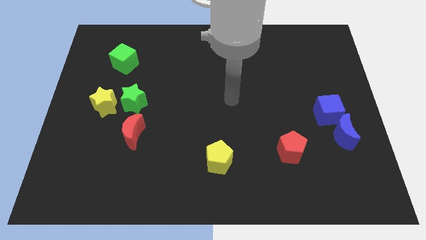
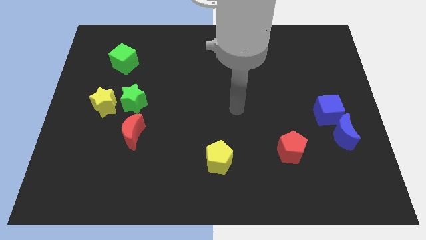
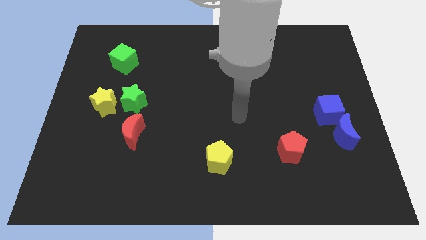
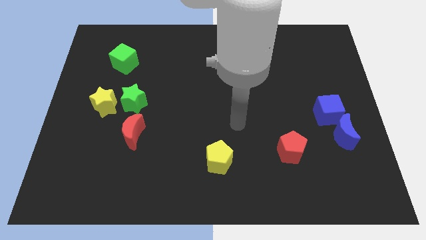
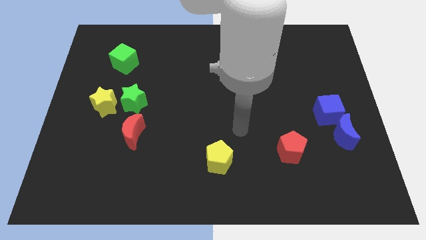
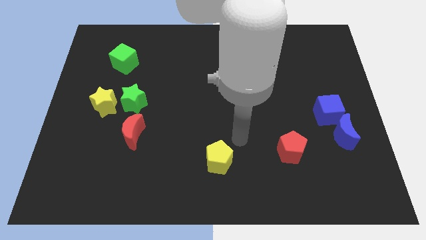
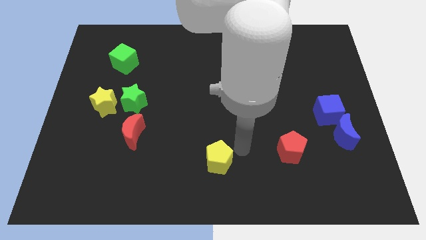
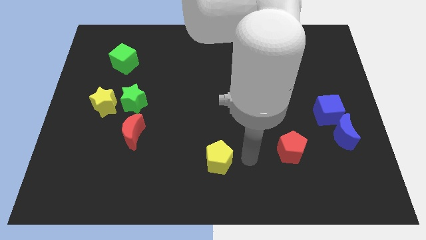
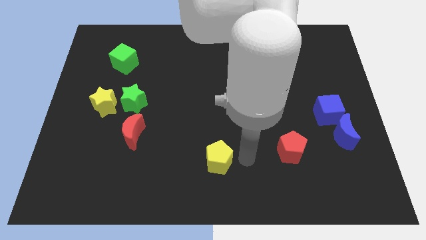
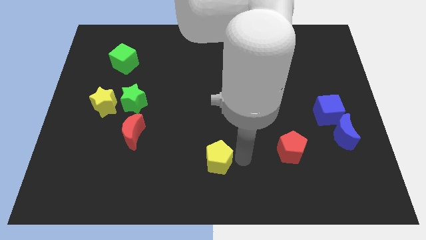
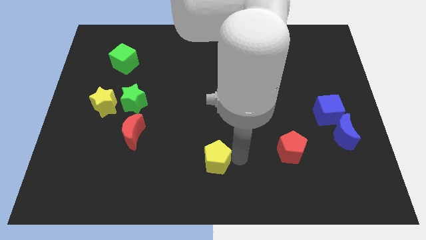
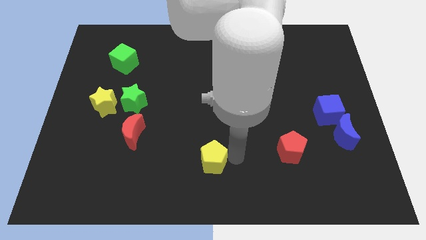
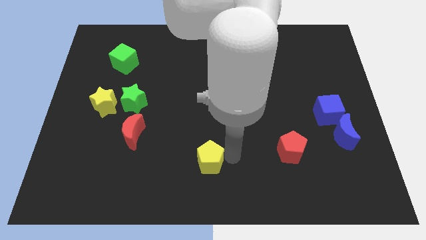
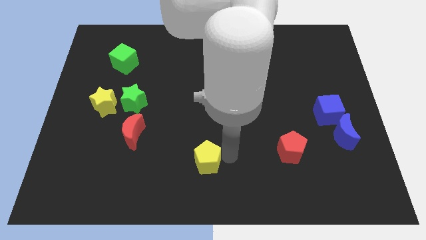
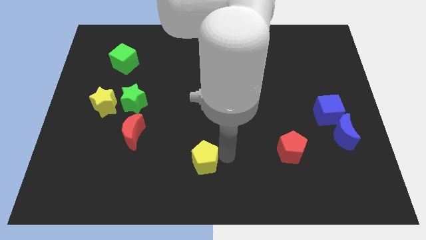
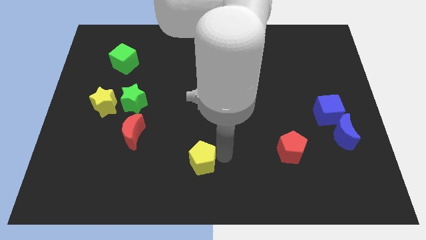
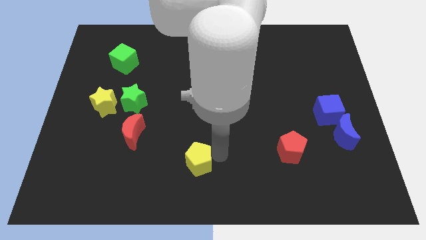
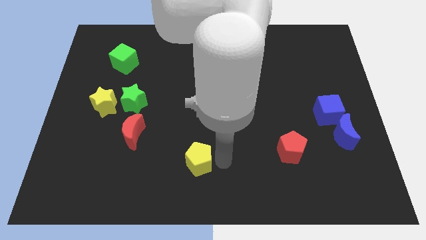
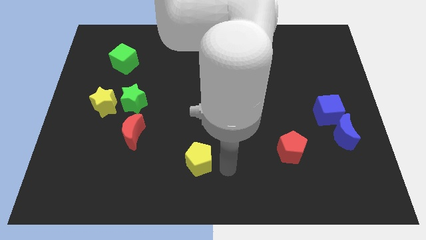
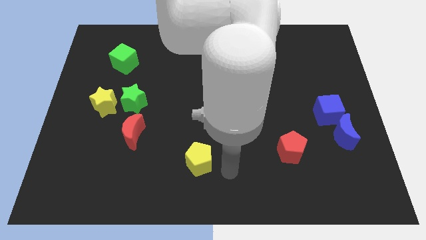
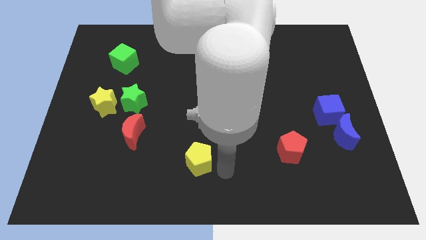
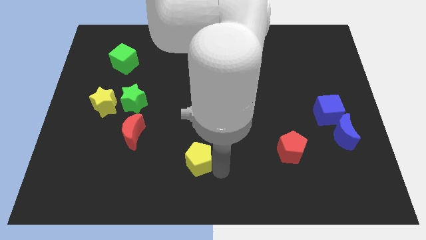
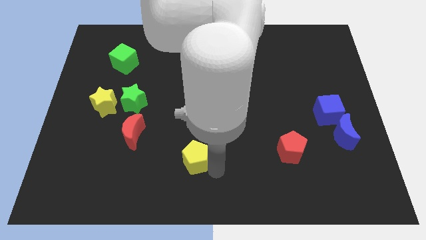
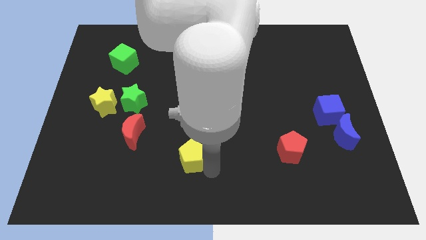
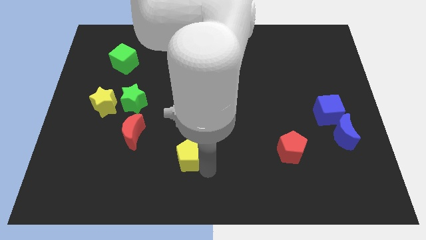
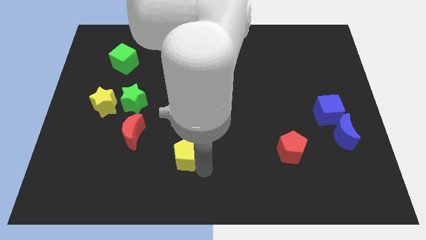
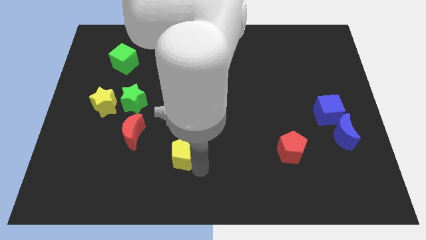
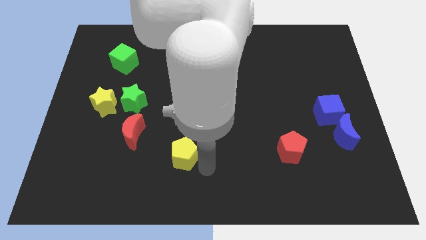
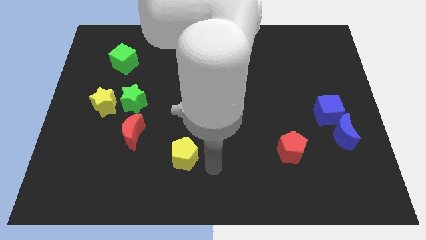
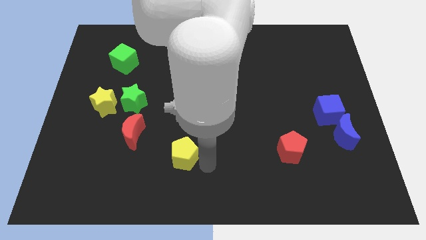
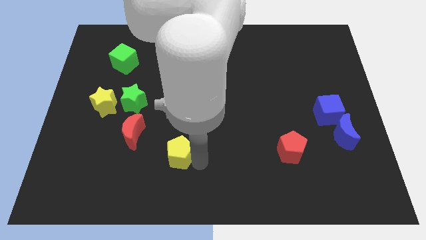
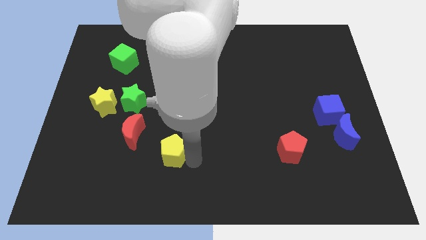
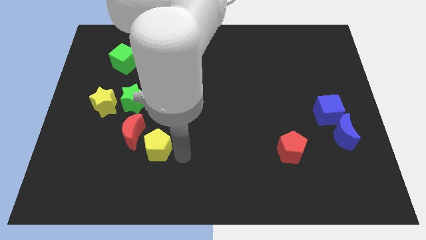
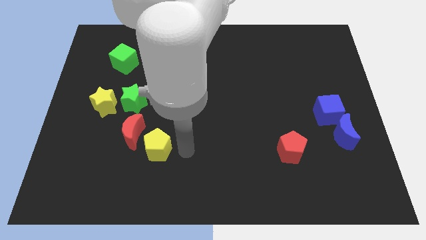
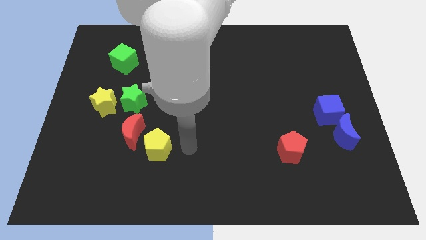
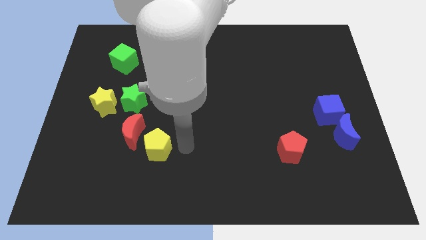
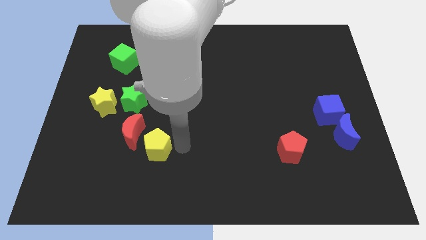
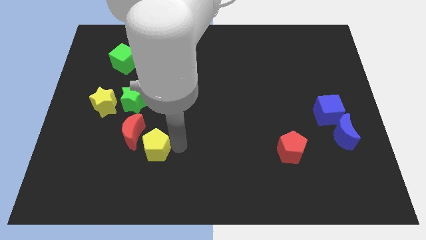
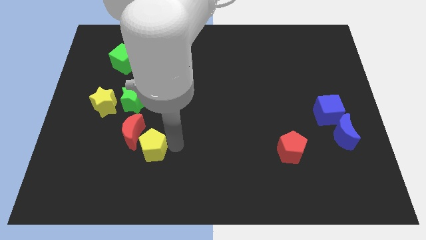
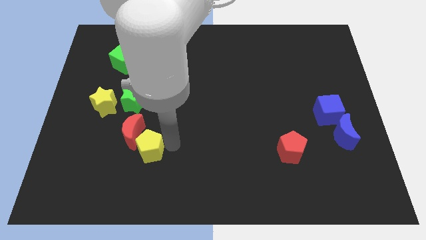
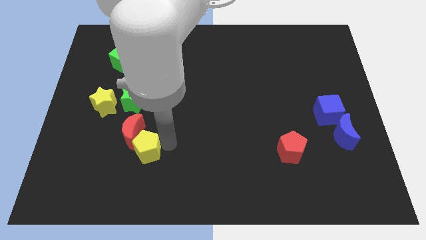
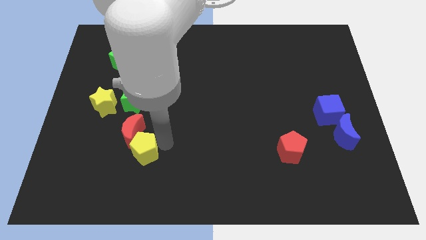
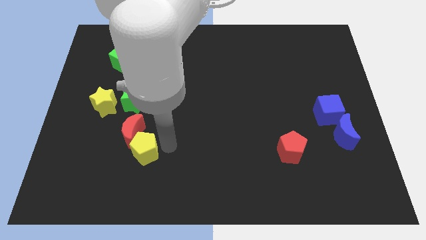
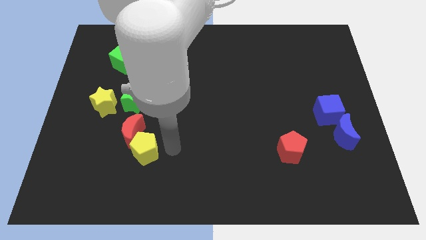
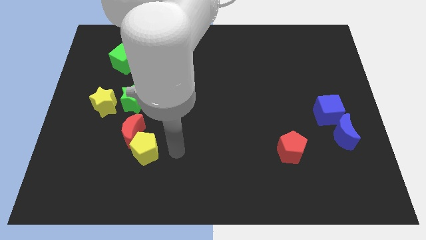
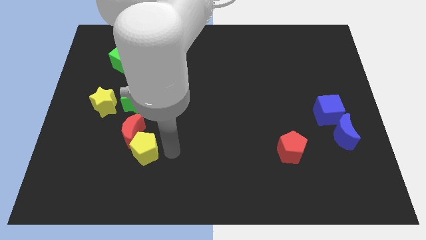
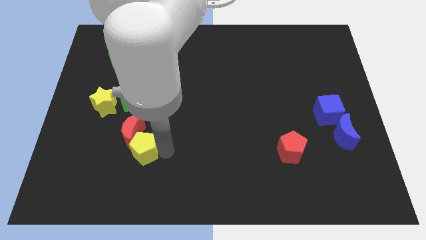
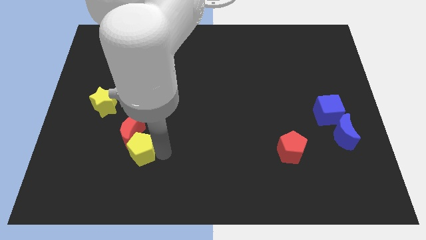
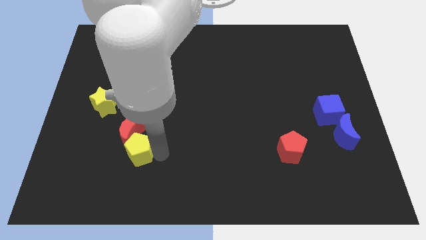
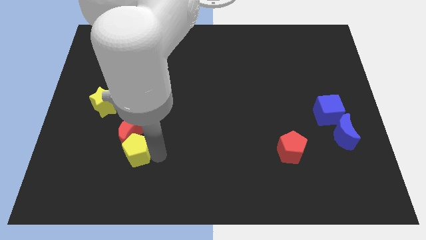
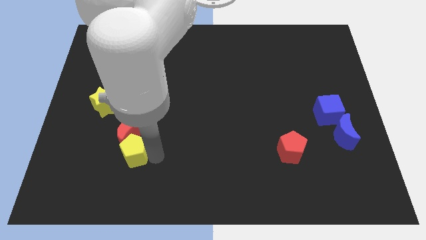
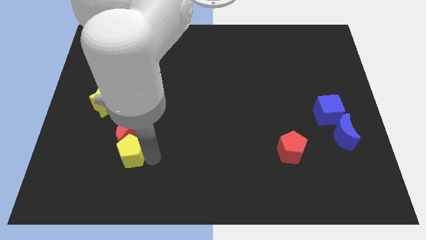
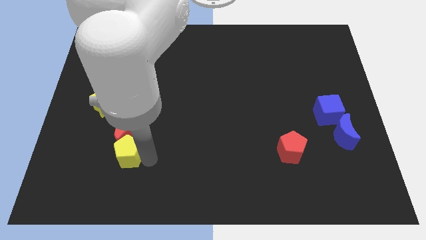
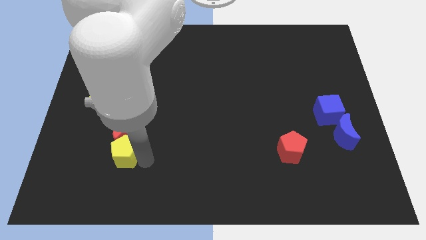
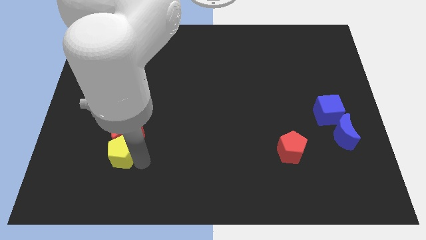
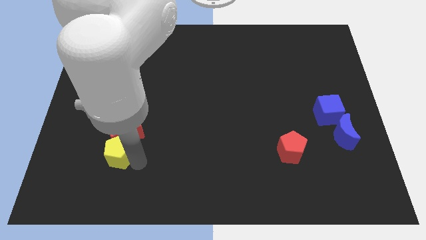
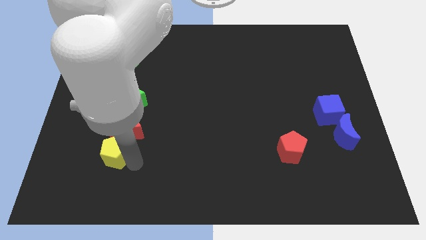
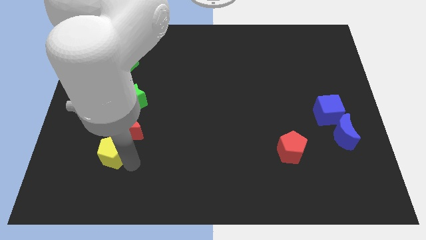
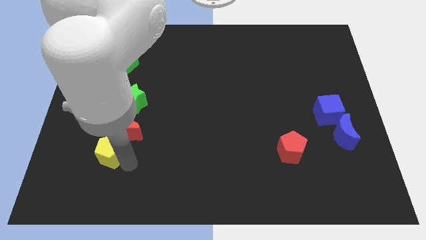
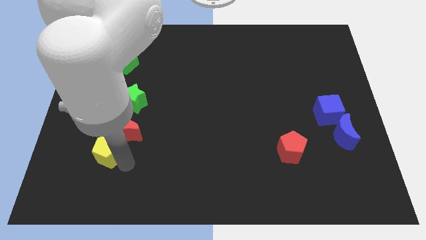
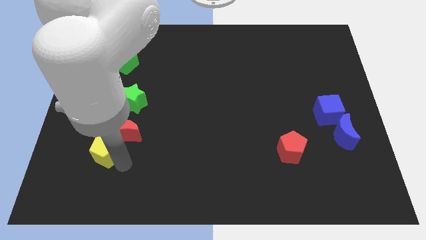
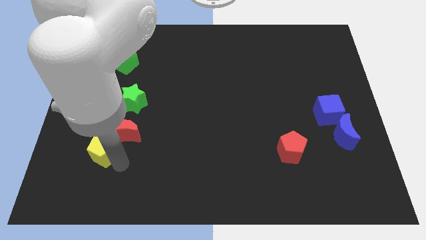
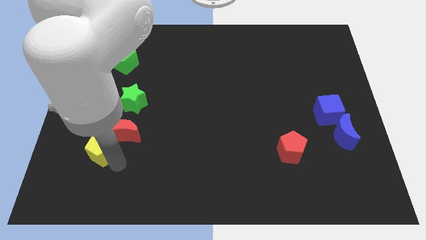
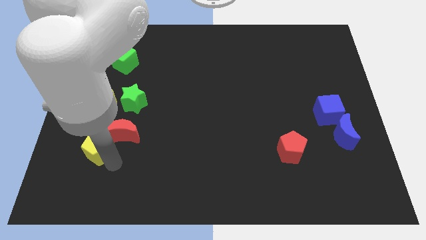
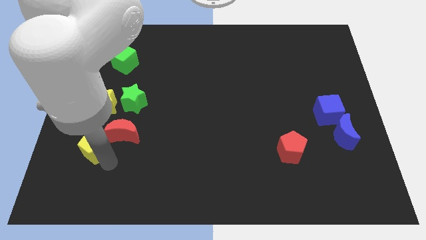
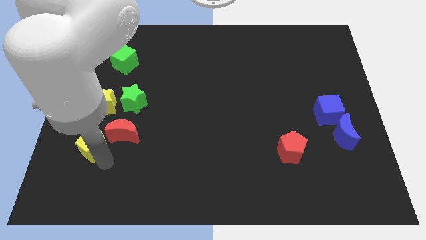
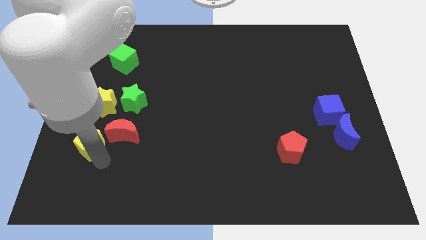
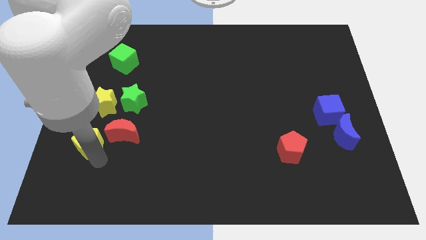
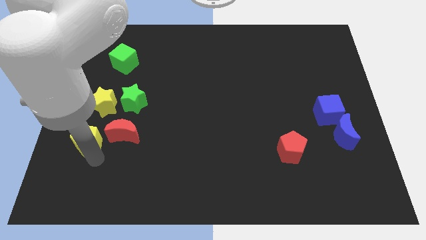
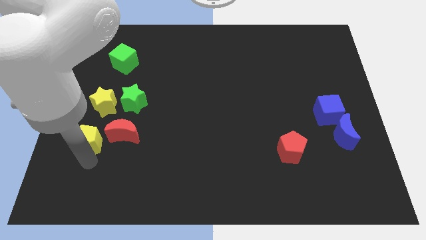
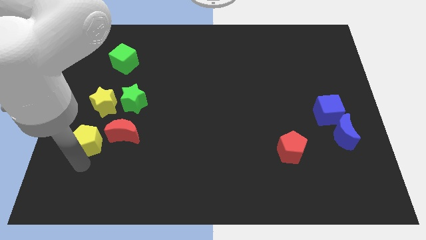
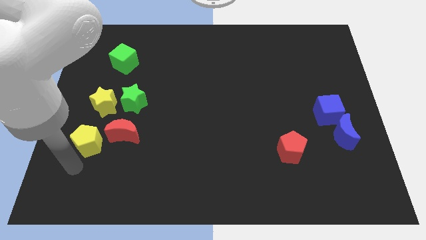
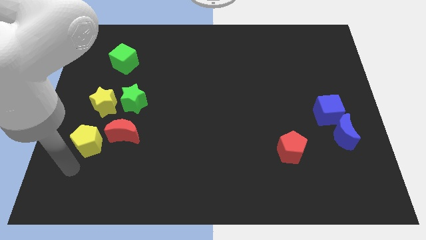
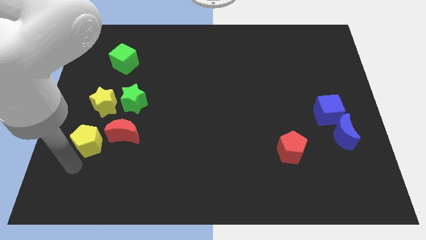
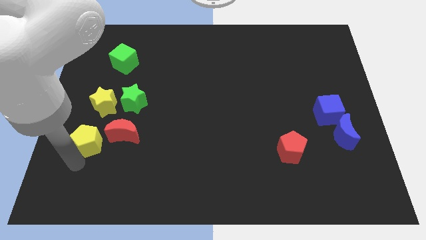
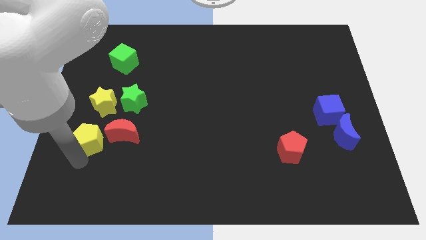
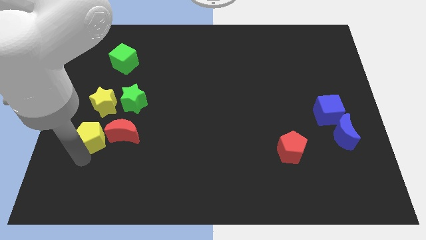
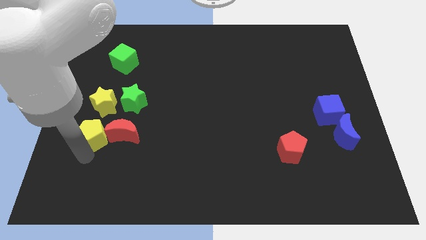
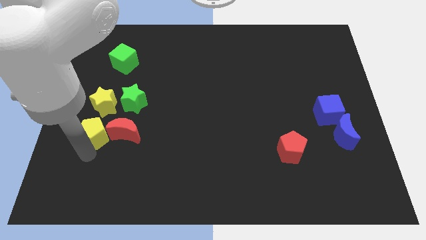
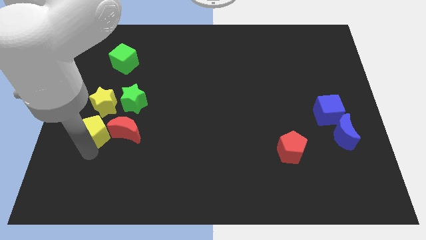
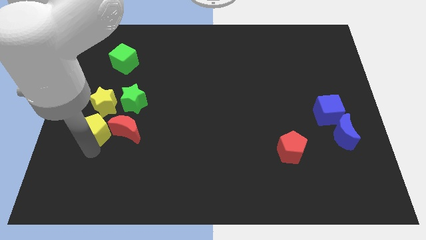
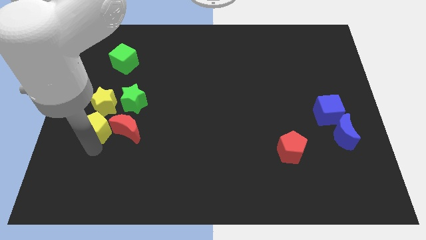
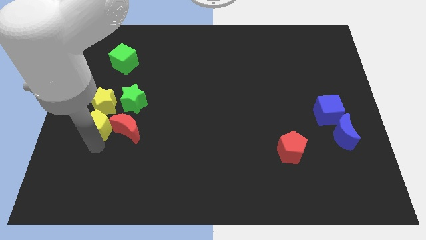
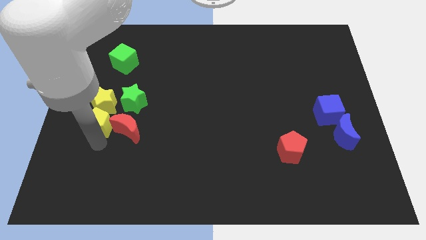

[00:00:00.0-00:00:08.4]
move the yellow pentagon close to the yellow star
